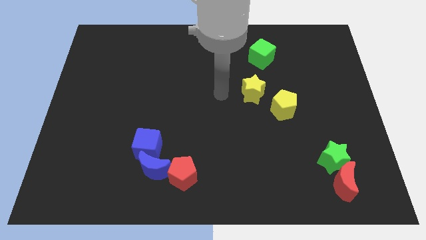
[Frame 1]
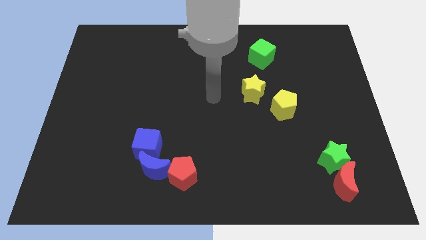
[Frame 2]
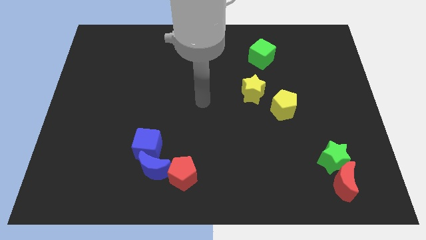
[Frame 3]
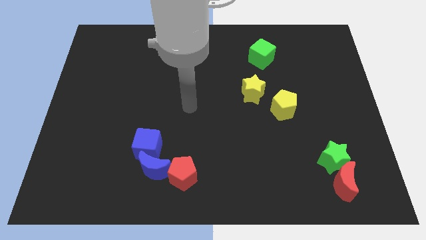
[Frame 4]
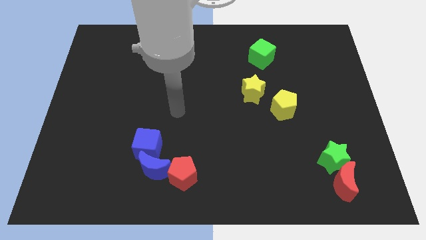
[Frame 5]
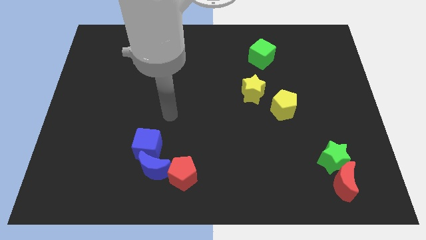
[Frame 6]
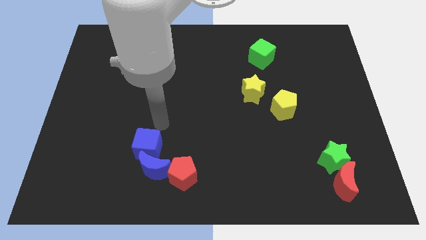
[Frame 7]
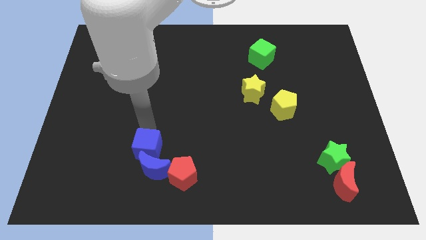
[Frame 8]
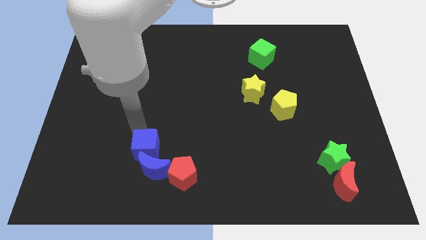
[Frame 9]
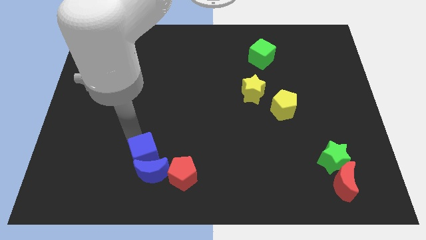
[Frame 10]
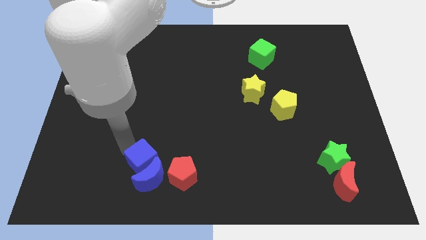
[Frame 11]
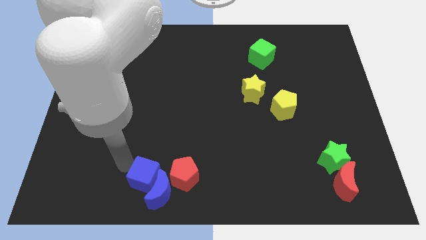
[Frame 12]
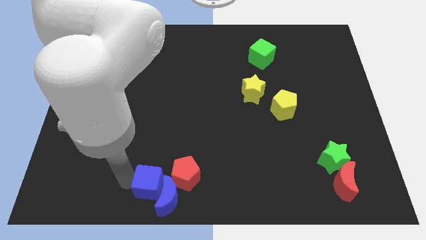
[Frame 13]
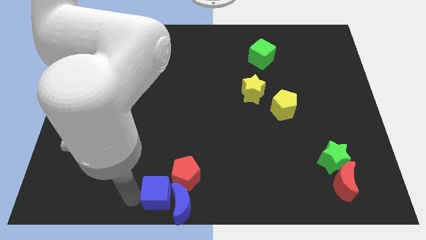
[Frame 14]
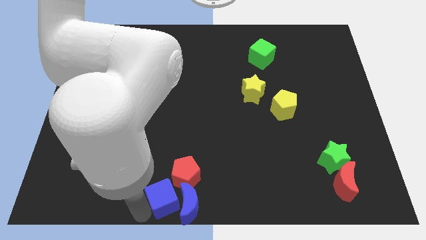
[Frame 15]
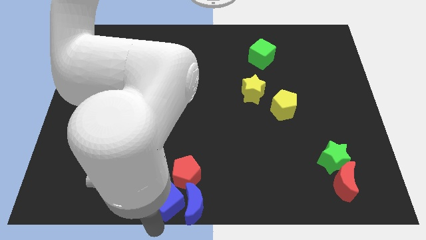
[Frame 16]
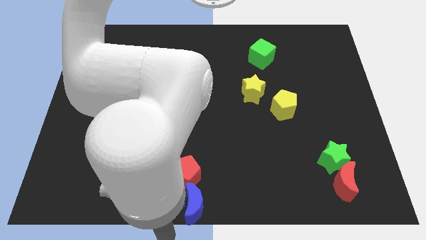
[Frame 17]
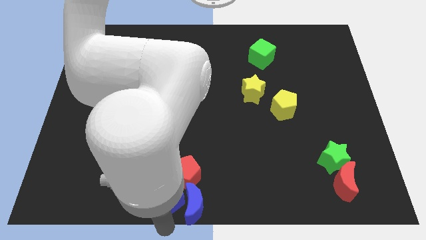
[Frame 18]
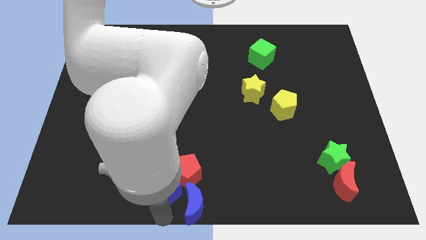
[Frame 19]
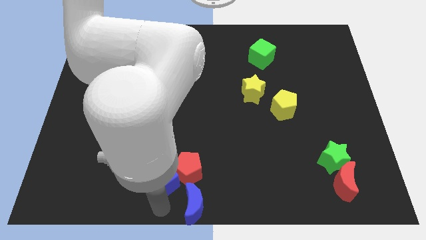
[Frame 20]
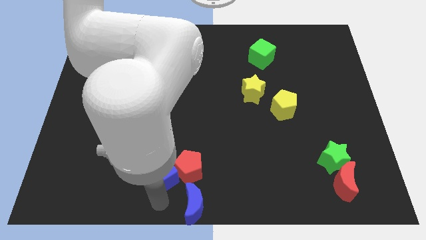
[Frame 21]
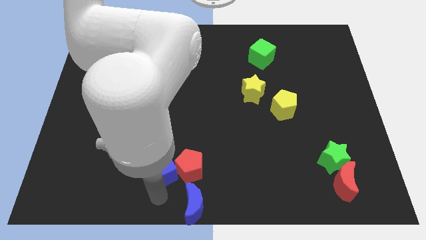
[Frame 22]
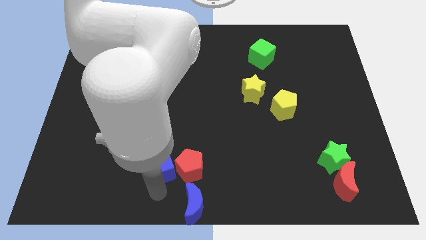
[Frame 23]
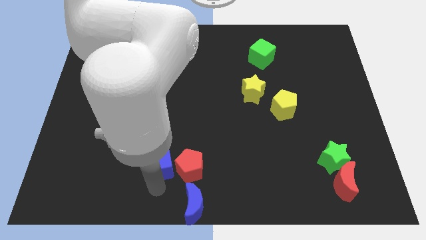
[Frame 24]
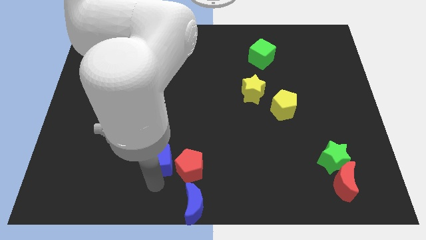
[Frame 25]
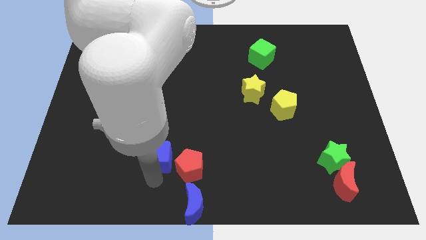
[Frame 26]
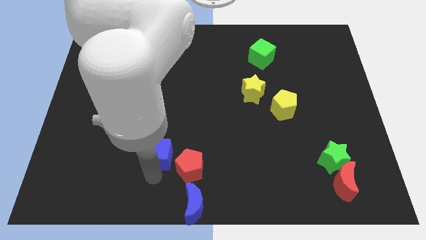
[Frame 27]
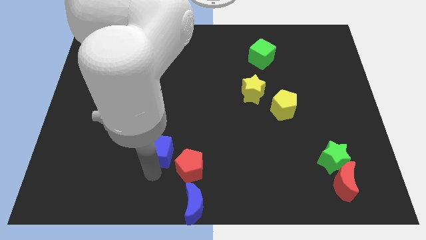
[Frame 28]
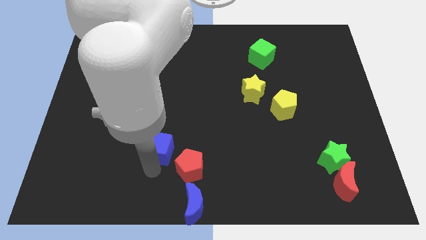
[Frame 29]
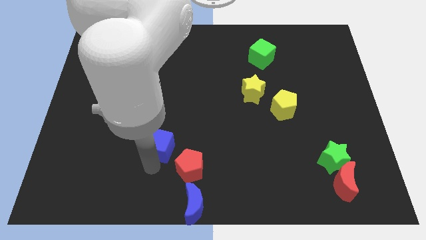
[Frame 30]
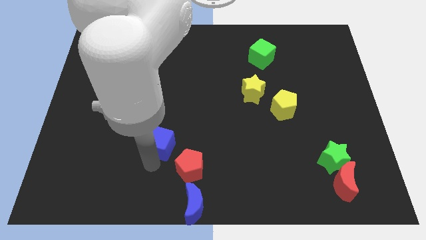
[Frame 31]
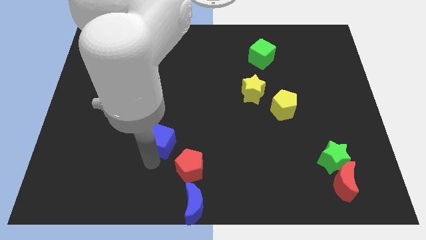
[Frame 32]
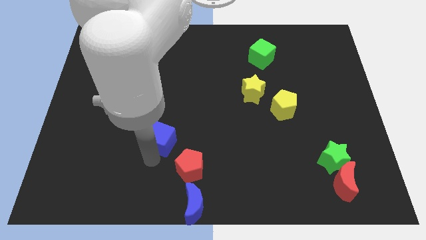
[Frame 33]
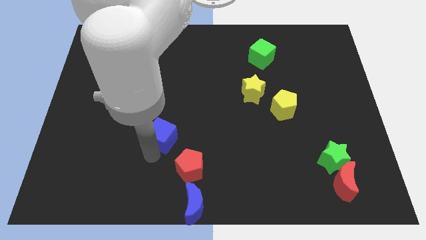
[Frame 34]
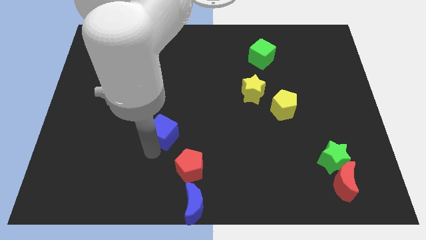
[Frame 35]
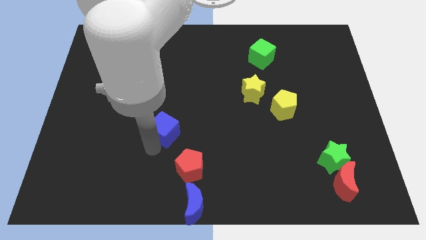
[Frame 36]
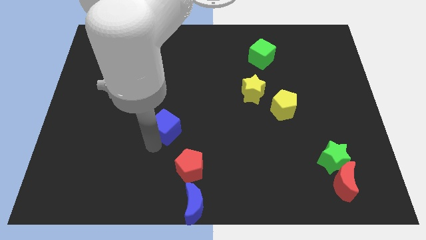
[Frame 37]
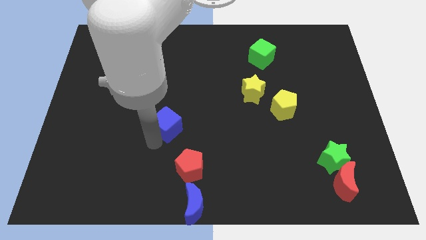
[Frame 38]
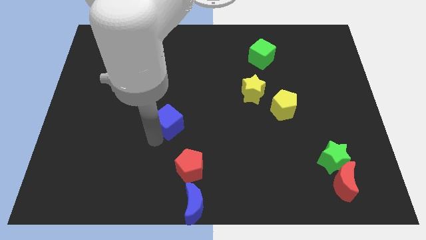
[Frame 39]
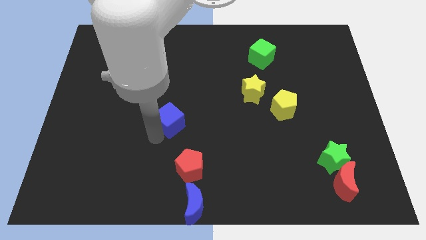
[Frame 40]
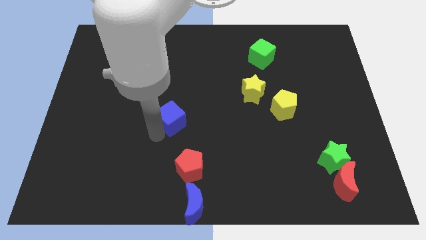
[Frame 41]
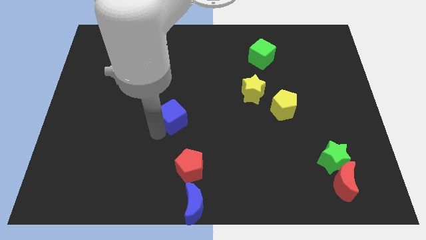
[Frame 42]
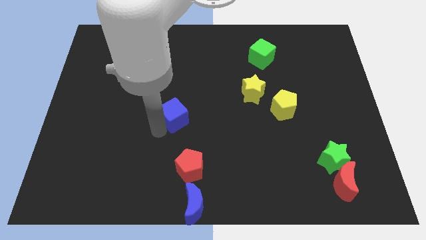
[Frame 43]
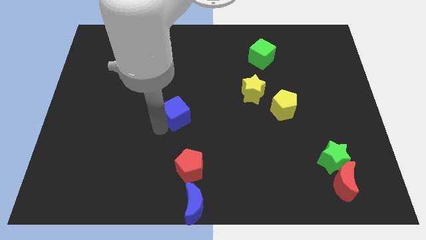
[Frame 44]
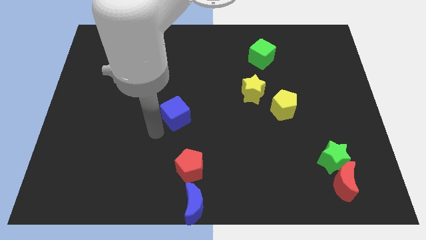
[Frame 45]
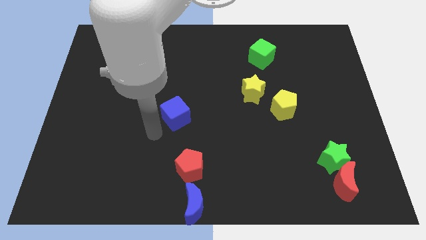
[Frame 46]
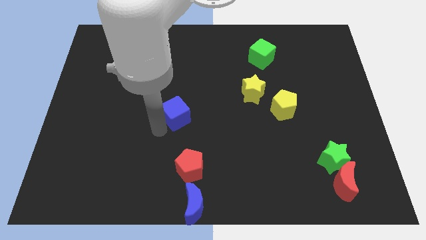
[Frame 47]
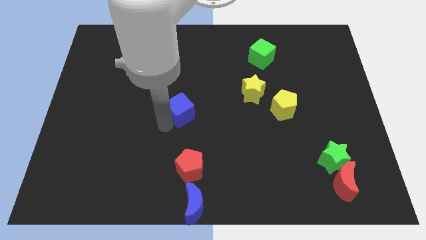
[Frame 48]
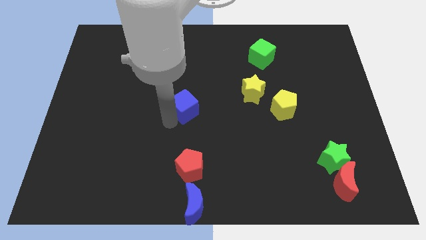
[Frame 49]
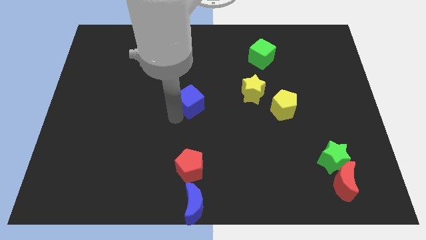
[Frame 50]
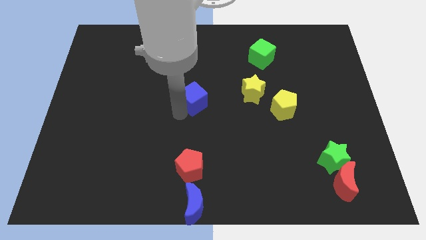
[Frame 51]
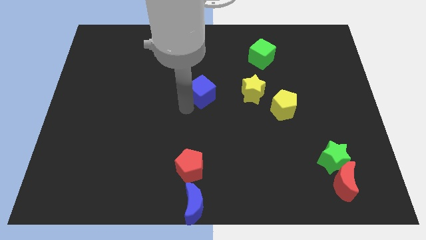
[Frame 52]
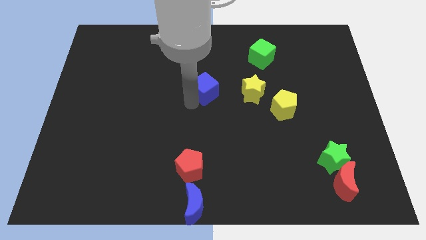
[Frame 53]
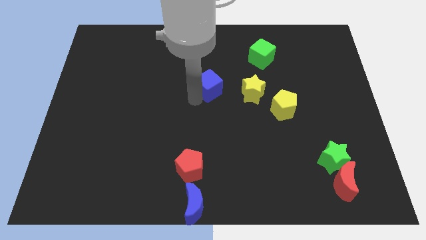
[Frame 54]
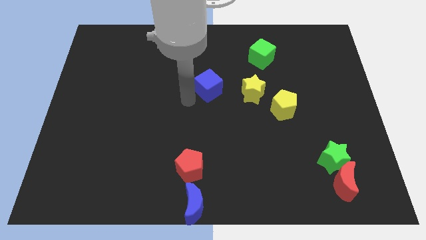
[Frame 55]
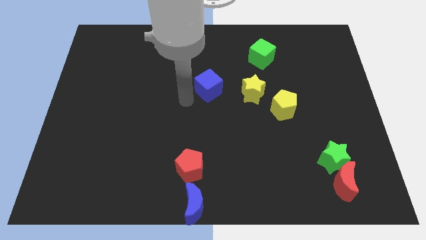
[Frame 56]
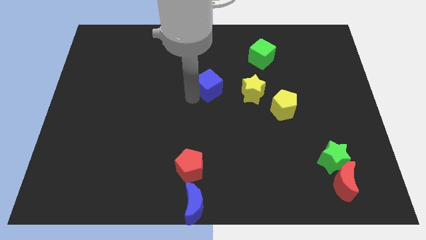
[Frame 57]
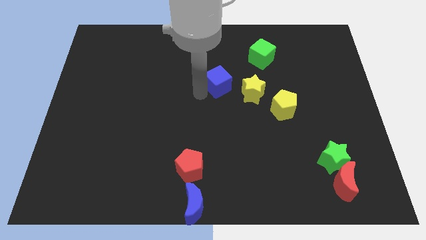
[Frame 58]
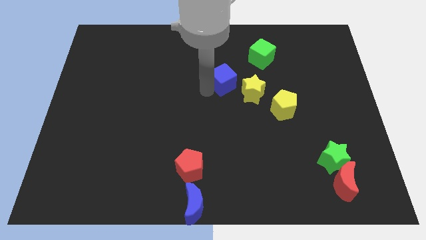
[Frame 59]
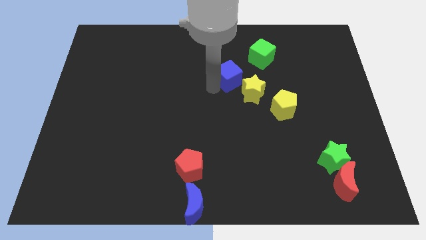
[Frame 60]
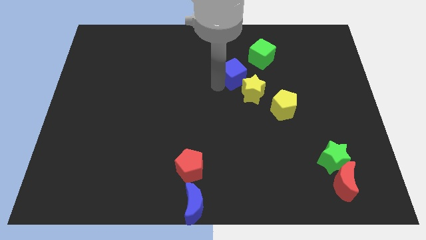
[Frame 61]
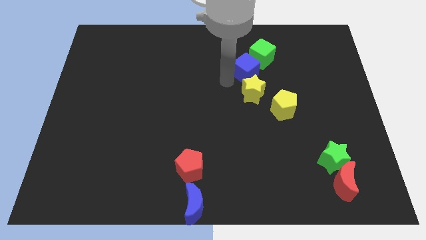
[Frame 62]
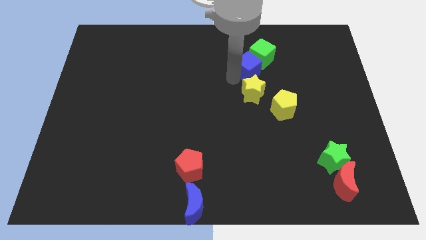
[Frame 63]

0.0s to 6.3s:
slide the blue cube next to the green cube

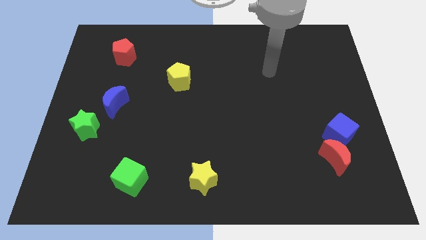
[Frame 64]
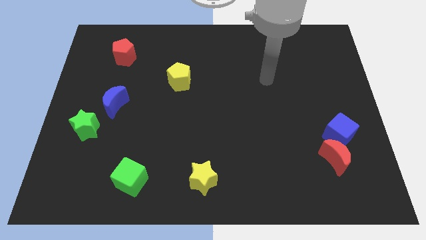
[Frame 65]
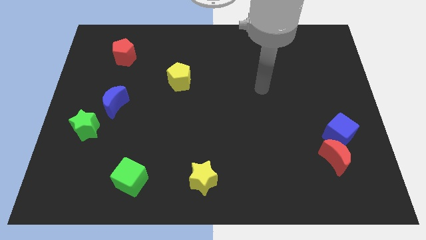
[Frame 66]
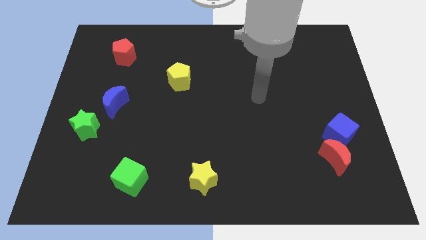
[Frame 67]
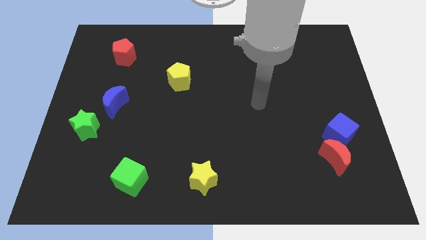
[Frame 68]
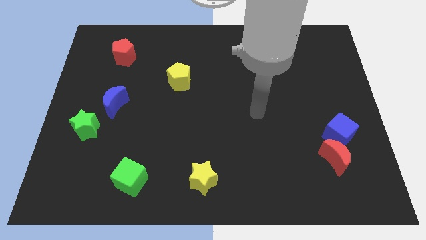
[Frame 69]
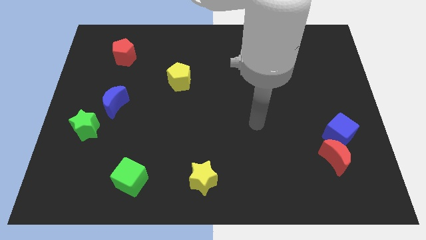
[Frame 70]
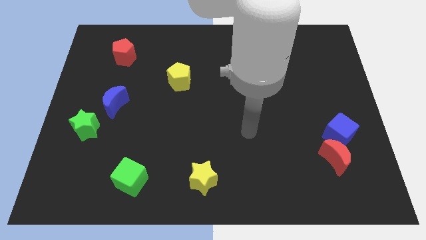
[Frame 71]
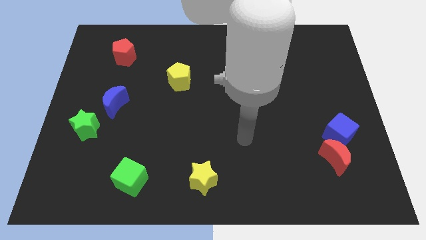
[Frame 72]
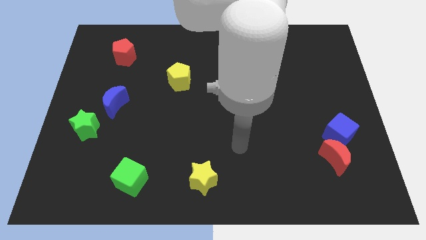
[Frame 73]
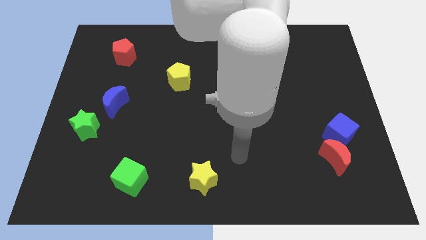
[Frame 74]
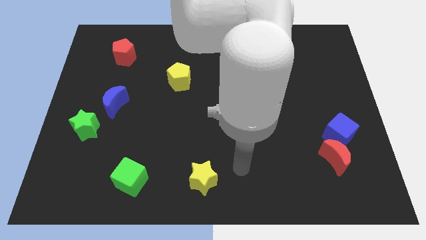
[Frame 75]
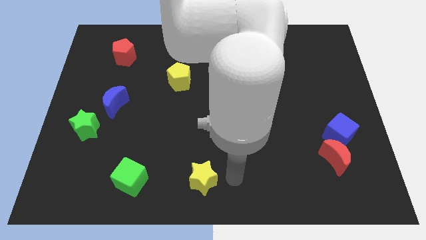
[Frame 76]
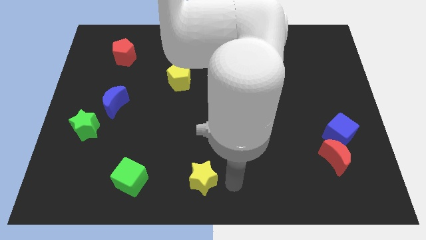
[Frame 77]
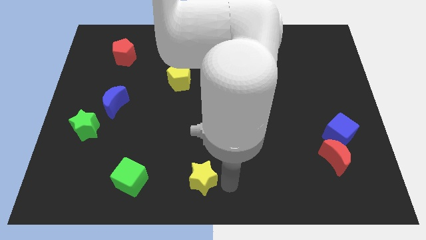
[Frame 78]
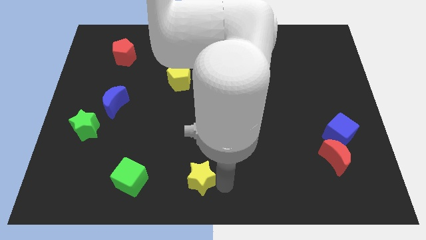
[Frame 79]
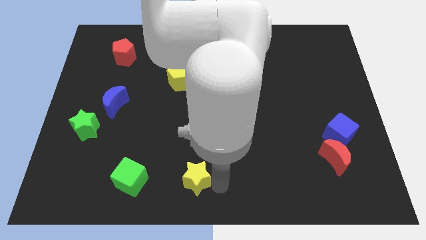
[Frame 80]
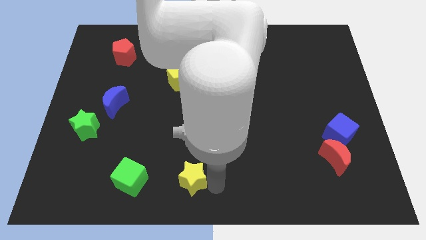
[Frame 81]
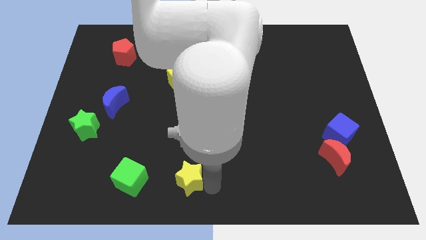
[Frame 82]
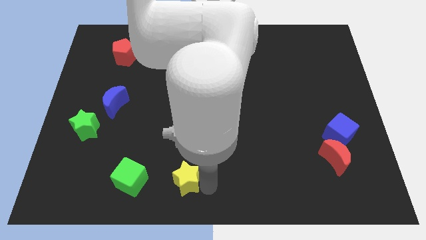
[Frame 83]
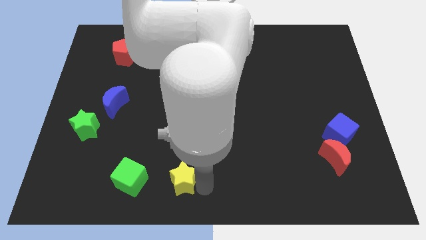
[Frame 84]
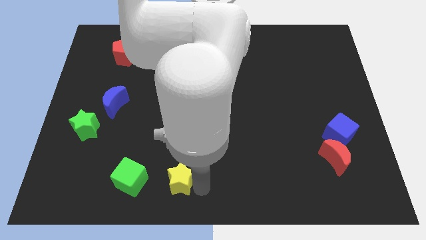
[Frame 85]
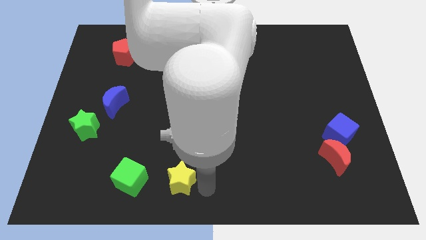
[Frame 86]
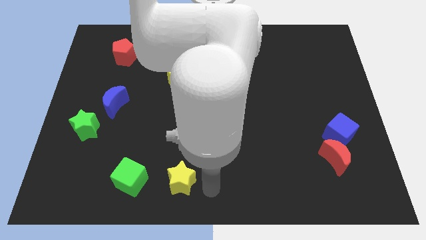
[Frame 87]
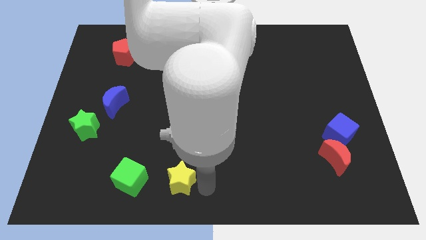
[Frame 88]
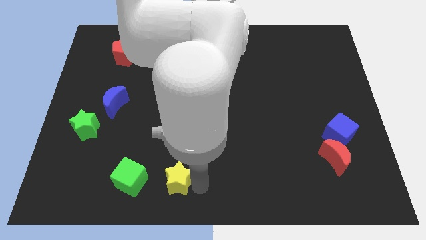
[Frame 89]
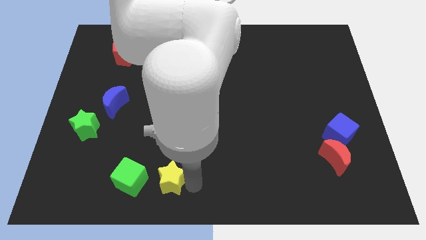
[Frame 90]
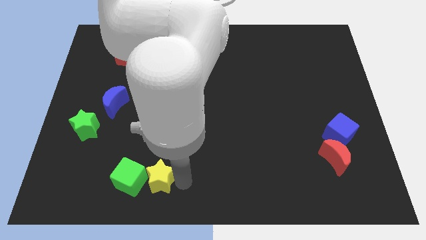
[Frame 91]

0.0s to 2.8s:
slide the yellow star close to the green cube
